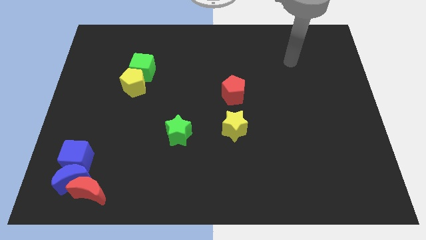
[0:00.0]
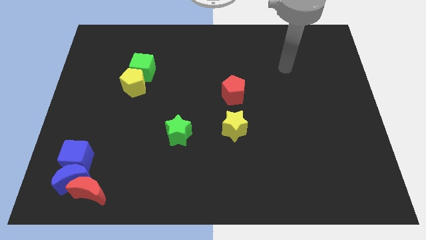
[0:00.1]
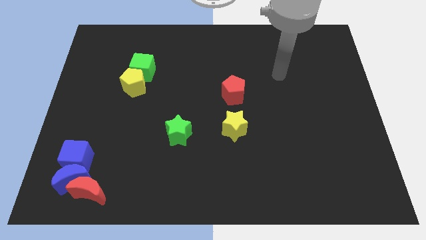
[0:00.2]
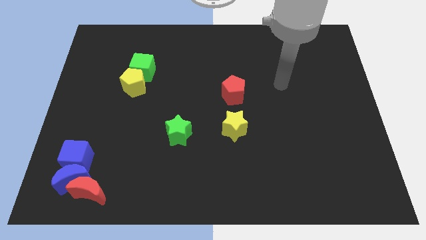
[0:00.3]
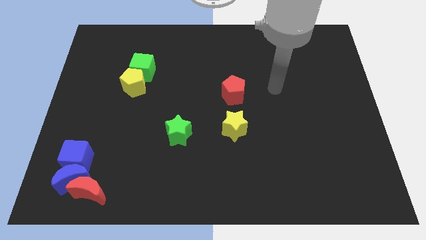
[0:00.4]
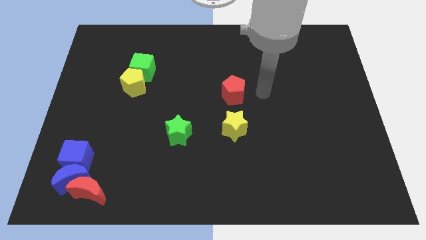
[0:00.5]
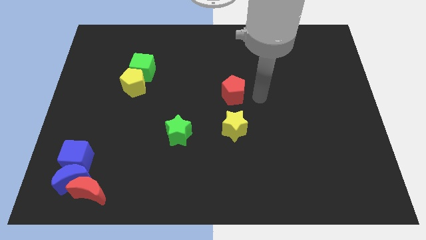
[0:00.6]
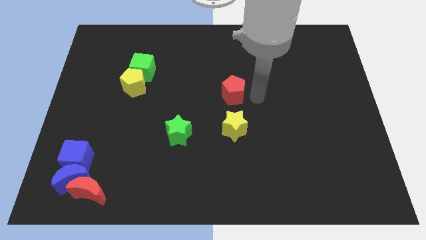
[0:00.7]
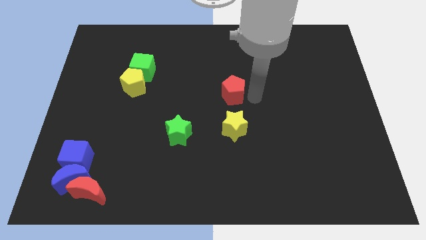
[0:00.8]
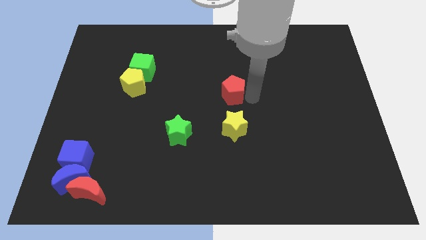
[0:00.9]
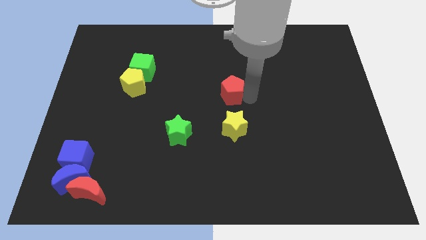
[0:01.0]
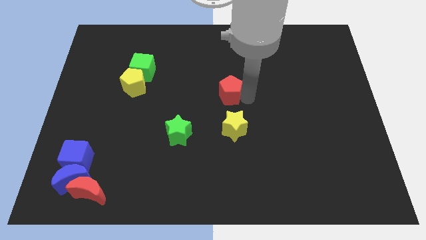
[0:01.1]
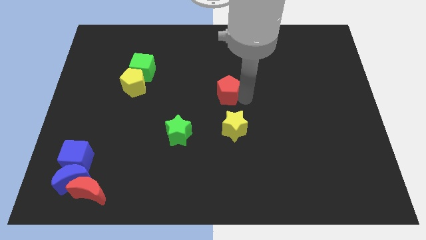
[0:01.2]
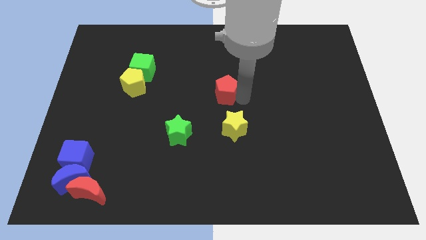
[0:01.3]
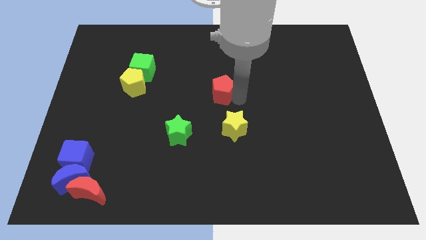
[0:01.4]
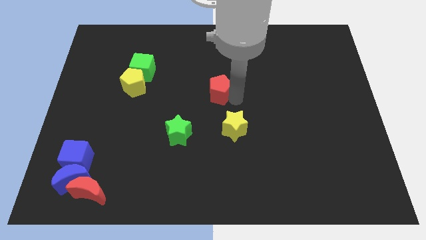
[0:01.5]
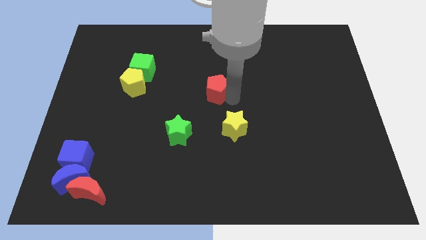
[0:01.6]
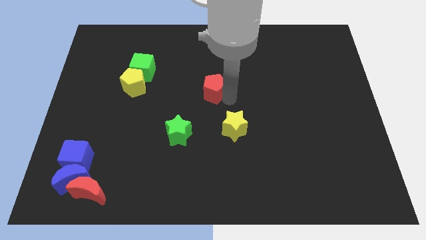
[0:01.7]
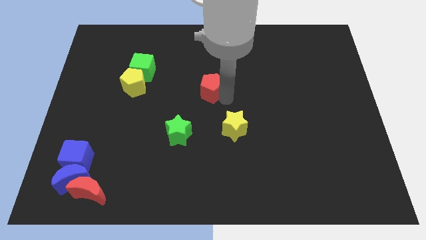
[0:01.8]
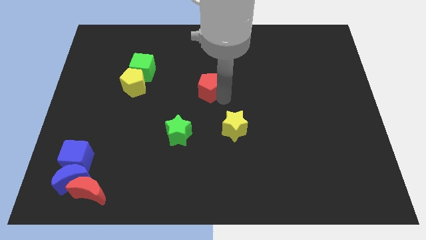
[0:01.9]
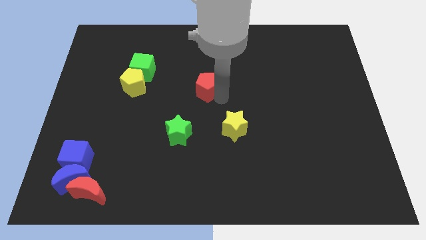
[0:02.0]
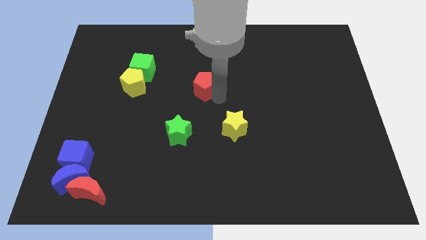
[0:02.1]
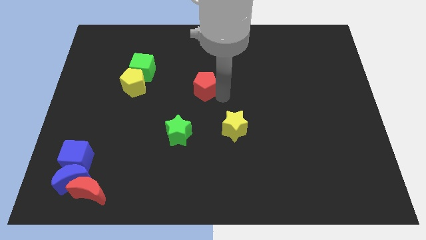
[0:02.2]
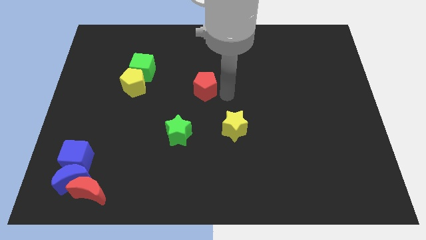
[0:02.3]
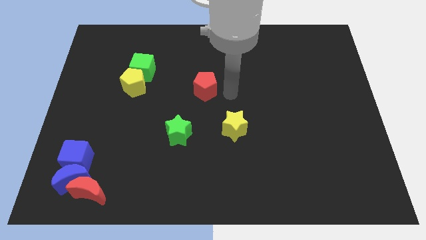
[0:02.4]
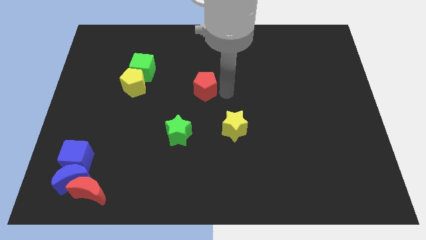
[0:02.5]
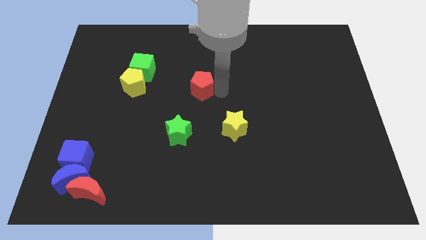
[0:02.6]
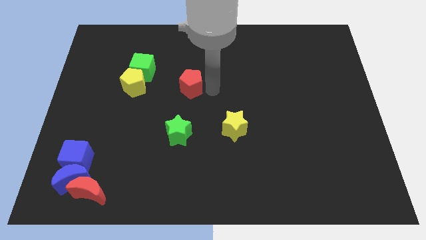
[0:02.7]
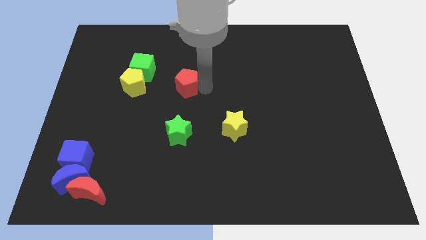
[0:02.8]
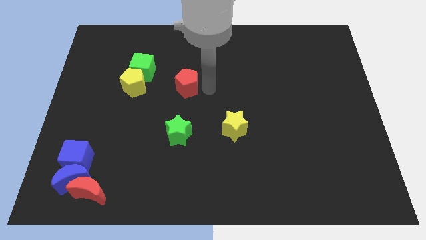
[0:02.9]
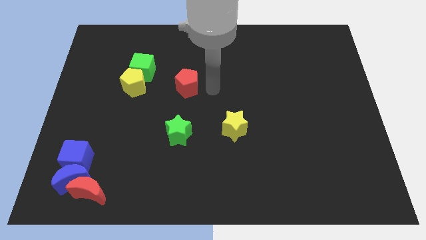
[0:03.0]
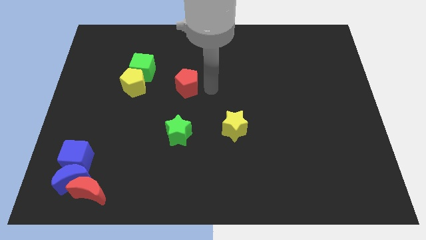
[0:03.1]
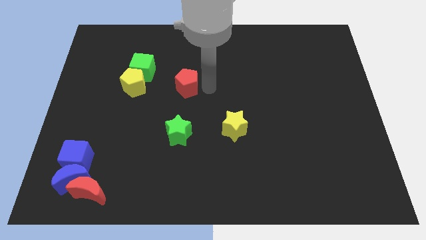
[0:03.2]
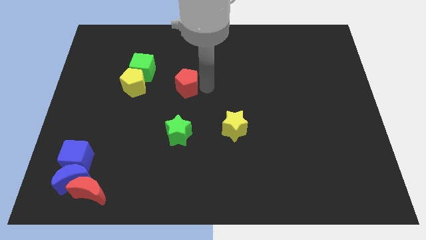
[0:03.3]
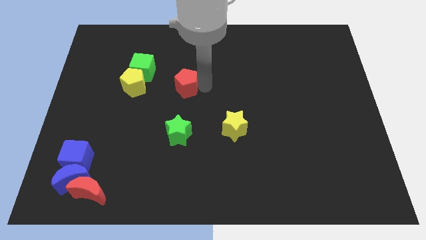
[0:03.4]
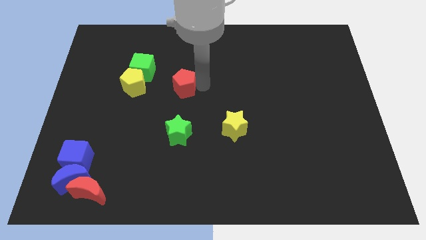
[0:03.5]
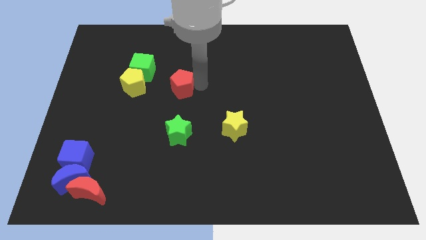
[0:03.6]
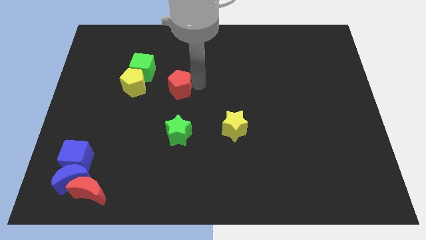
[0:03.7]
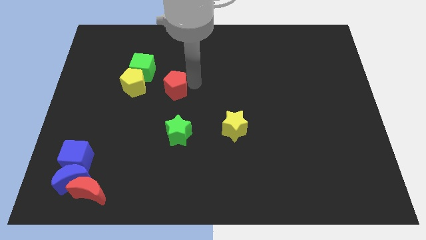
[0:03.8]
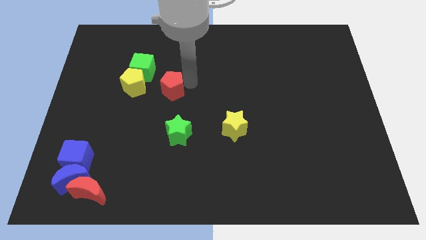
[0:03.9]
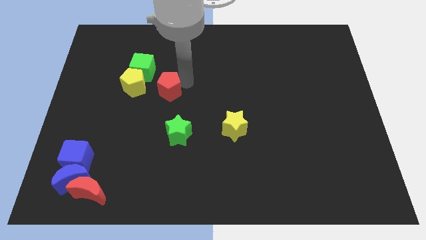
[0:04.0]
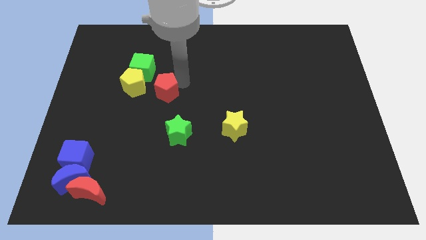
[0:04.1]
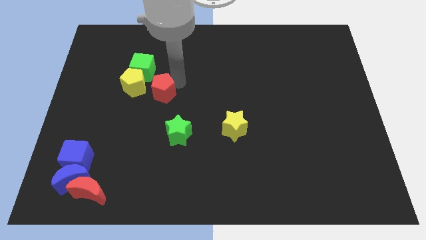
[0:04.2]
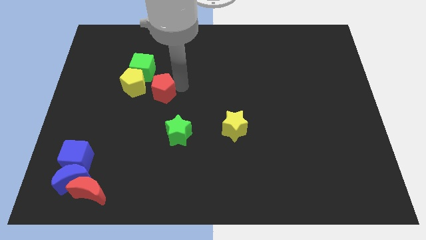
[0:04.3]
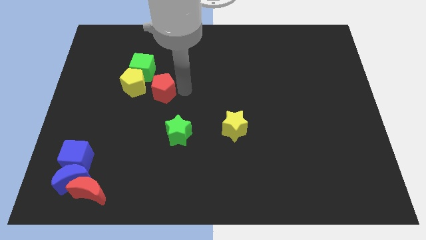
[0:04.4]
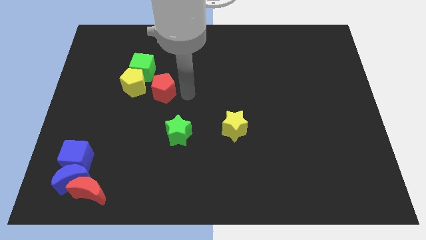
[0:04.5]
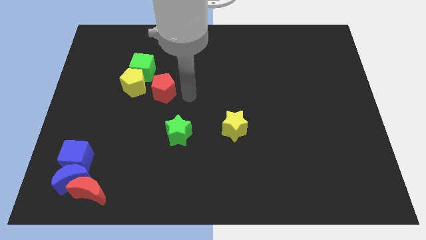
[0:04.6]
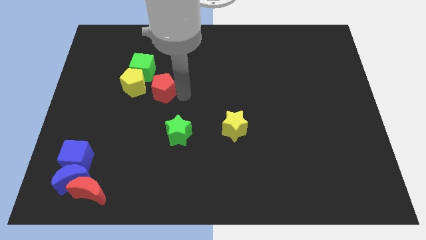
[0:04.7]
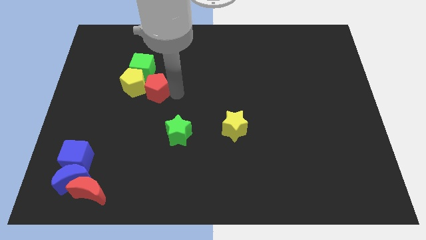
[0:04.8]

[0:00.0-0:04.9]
push the red pentagon to the yellow pentagon

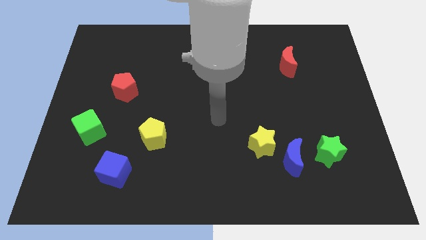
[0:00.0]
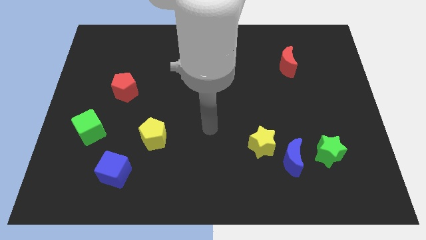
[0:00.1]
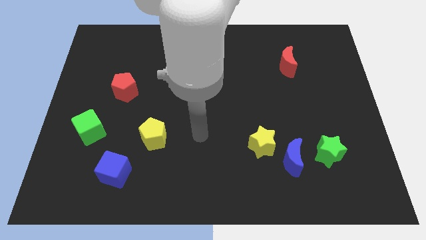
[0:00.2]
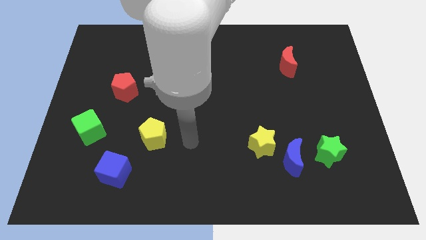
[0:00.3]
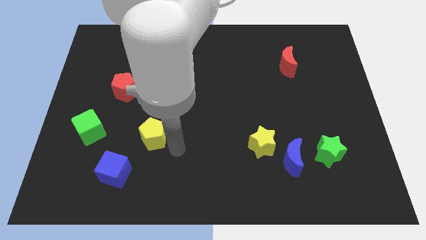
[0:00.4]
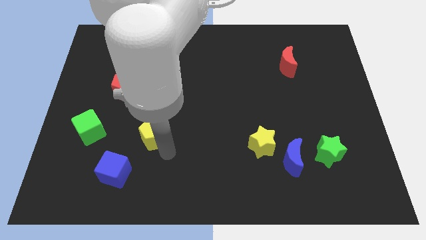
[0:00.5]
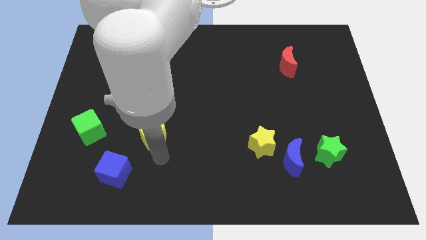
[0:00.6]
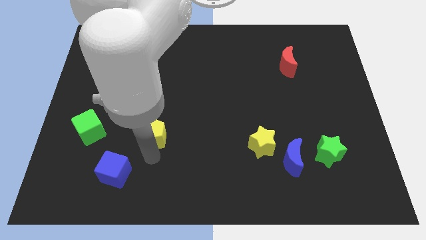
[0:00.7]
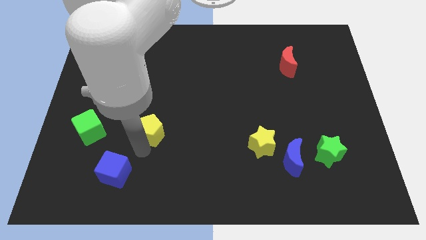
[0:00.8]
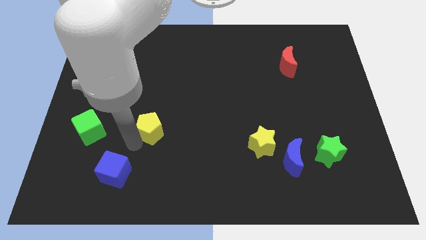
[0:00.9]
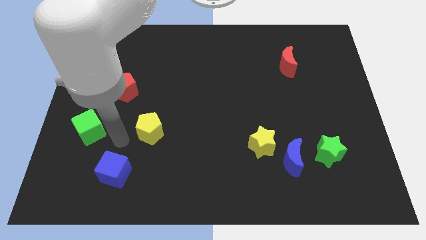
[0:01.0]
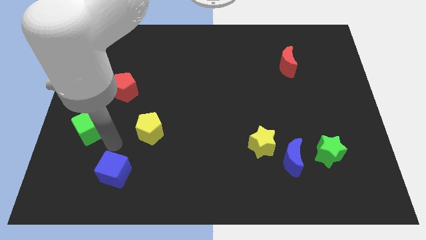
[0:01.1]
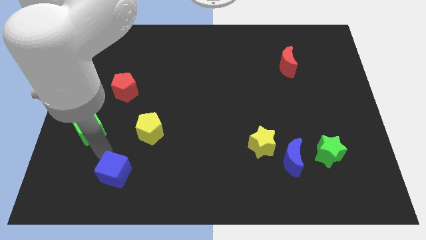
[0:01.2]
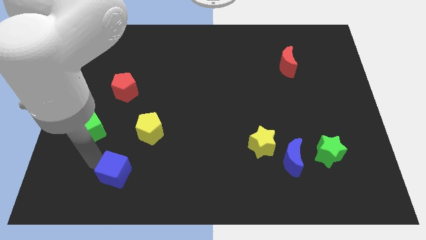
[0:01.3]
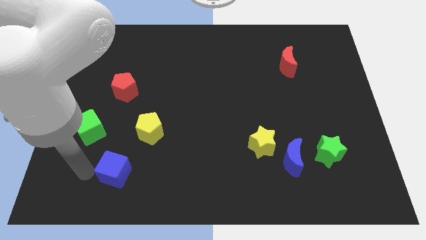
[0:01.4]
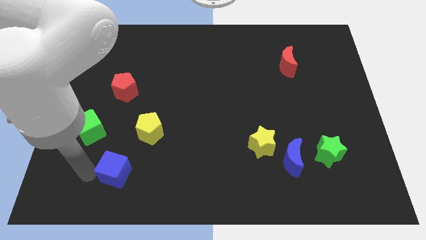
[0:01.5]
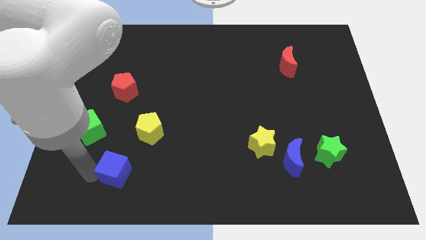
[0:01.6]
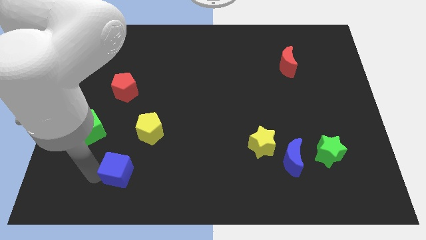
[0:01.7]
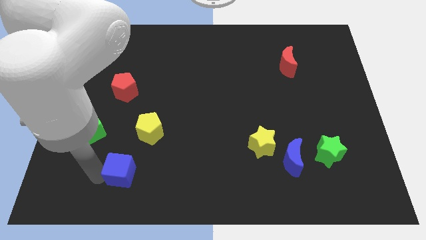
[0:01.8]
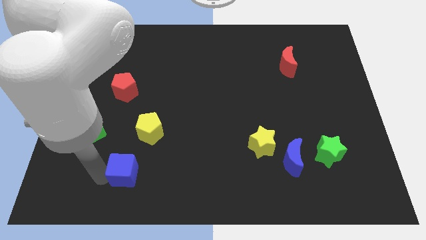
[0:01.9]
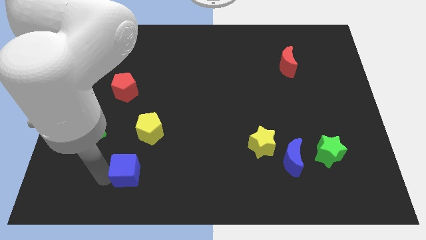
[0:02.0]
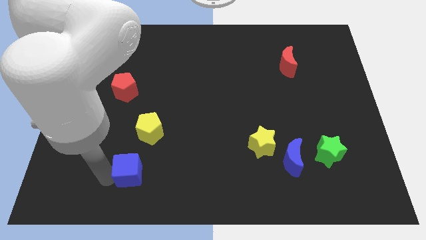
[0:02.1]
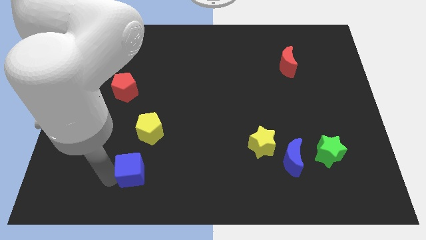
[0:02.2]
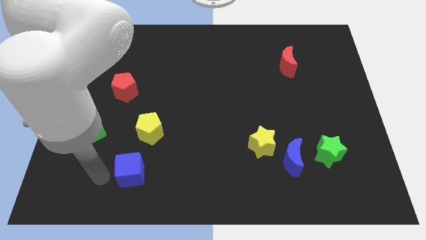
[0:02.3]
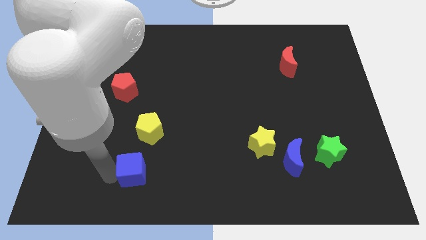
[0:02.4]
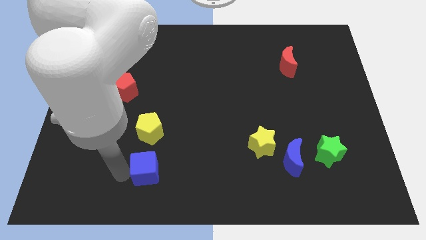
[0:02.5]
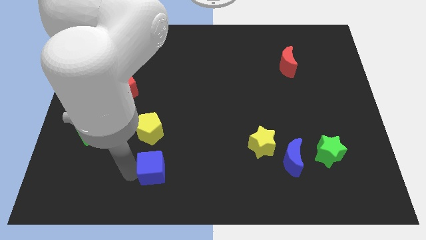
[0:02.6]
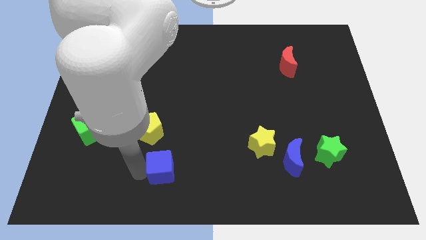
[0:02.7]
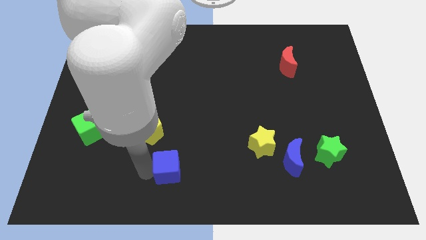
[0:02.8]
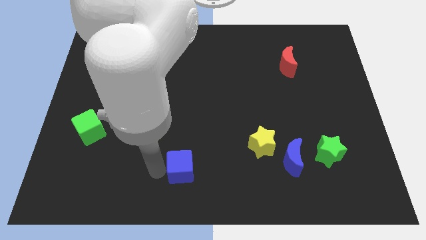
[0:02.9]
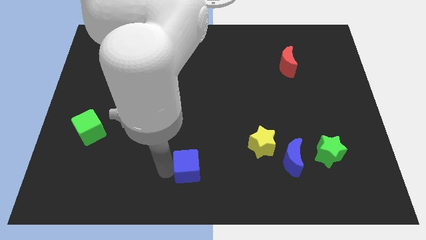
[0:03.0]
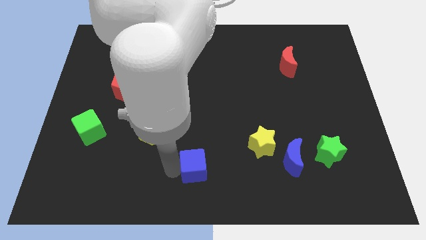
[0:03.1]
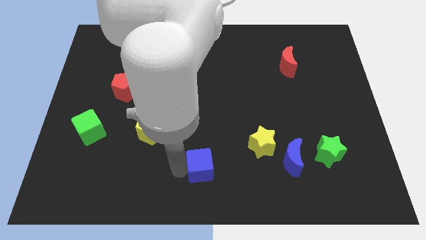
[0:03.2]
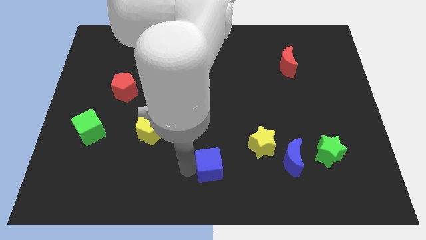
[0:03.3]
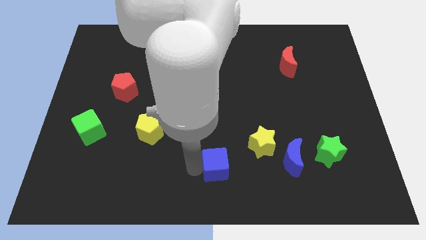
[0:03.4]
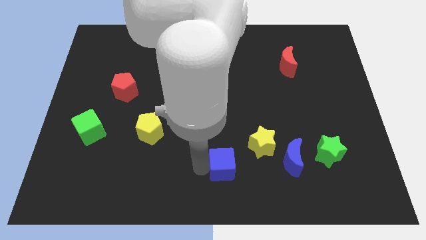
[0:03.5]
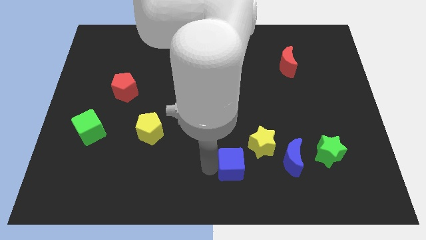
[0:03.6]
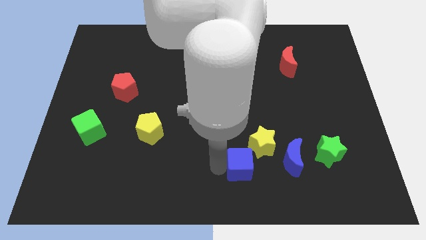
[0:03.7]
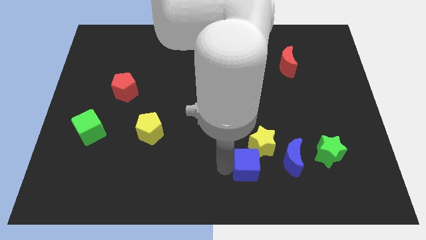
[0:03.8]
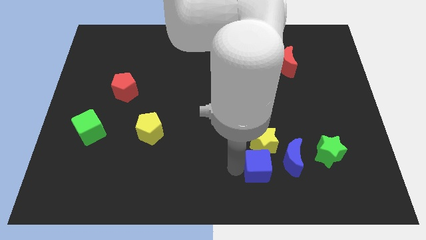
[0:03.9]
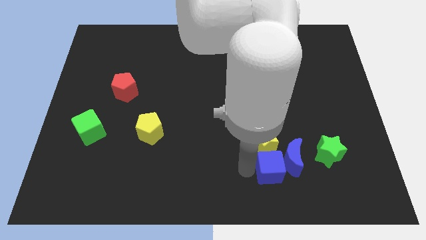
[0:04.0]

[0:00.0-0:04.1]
slide the blue cube close to the blue moon
